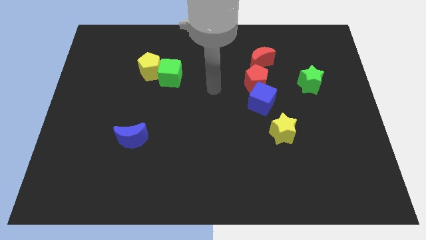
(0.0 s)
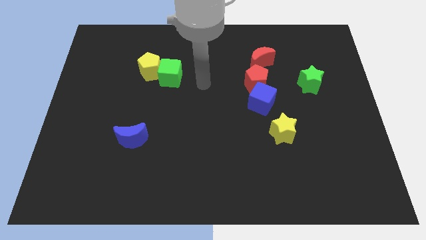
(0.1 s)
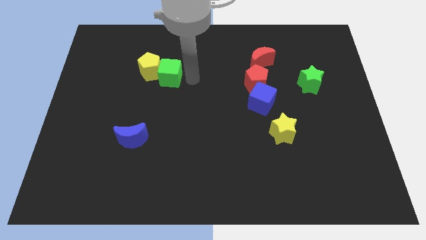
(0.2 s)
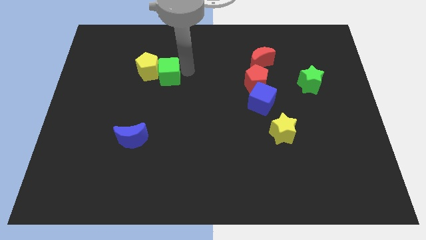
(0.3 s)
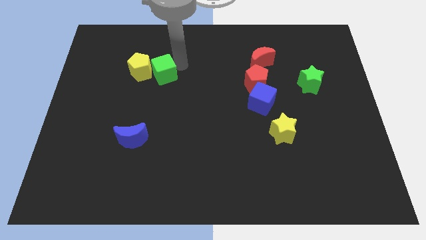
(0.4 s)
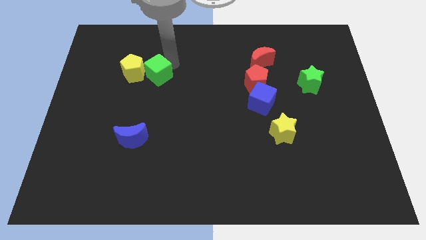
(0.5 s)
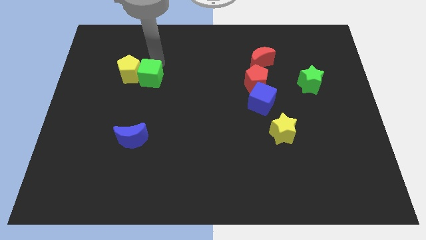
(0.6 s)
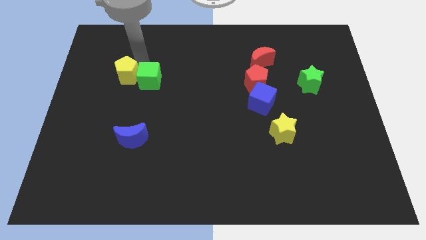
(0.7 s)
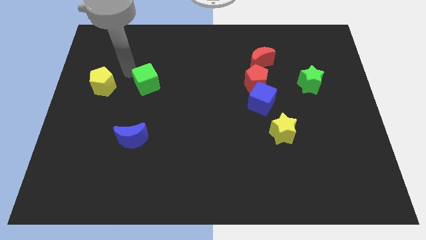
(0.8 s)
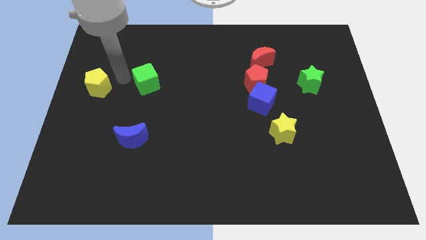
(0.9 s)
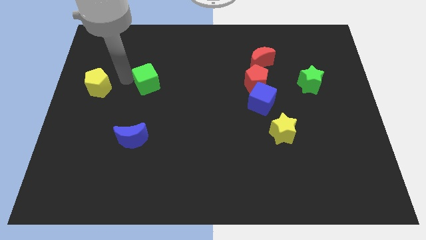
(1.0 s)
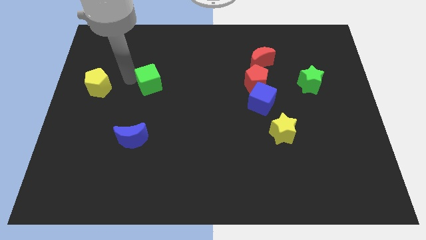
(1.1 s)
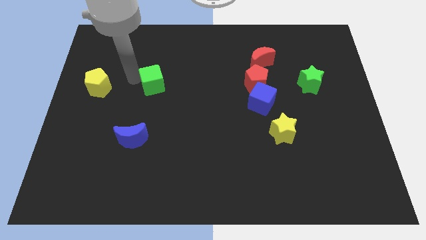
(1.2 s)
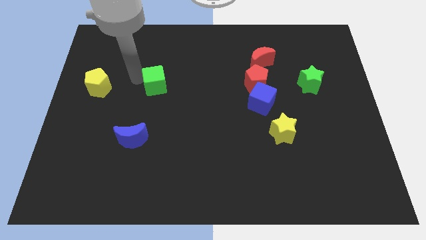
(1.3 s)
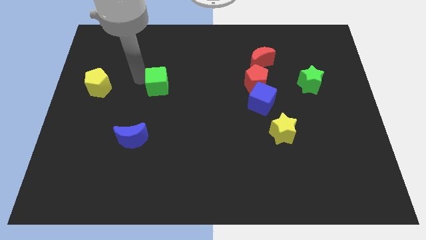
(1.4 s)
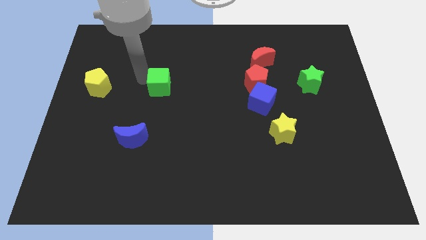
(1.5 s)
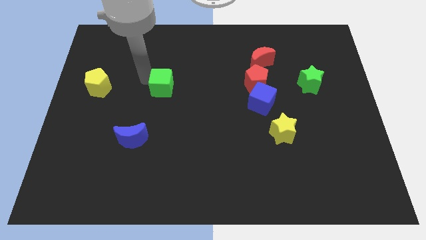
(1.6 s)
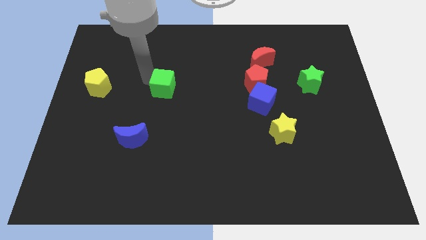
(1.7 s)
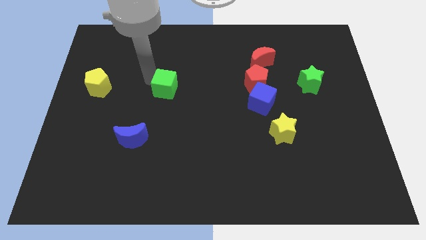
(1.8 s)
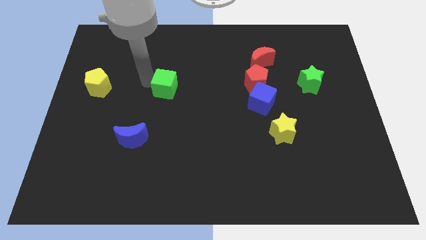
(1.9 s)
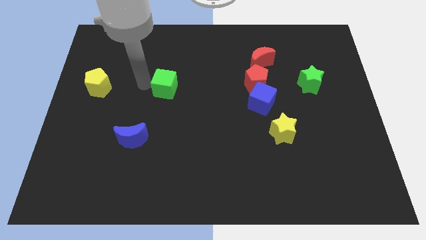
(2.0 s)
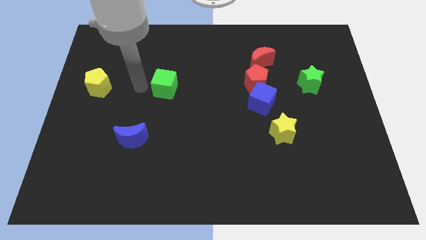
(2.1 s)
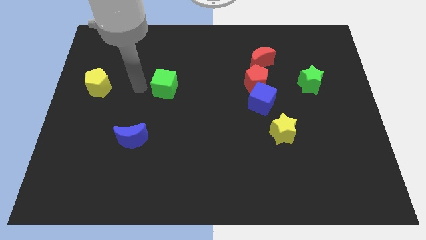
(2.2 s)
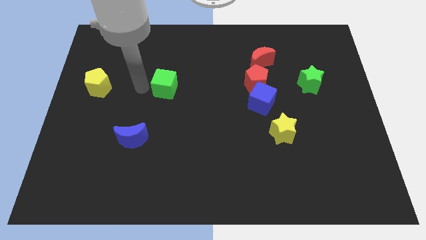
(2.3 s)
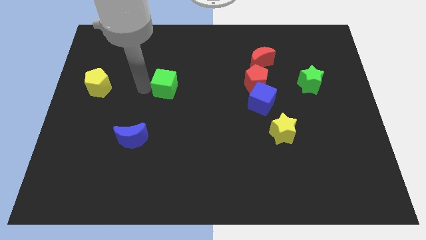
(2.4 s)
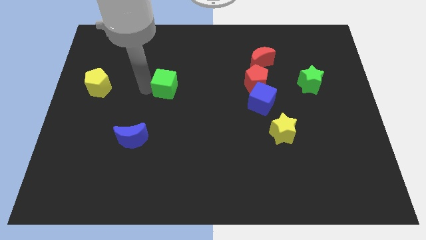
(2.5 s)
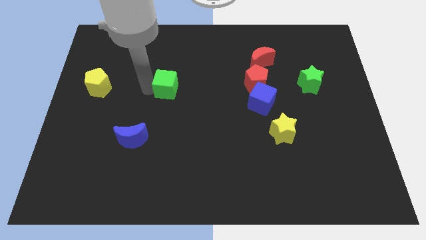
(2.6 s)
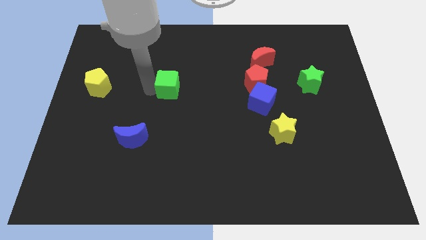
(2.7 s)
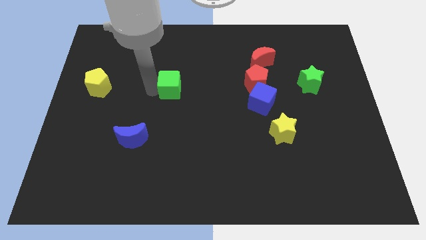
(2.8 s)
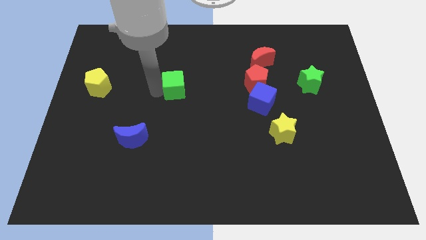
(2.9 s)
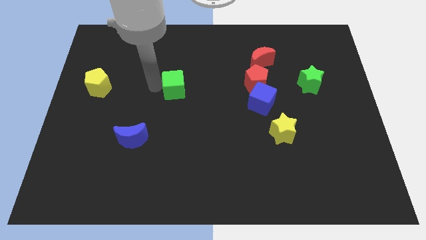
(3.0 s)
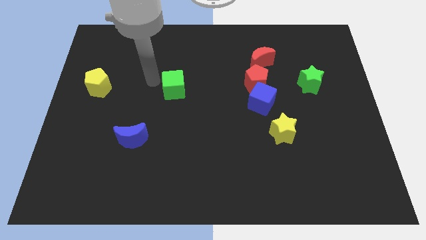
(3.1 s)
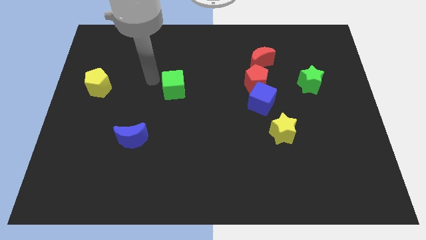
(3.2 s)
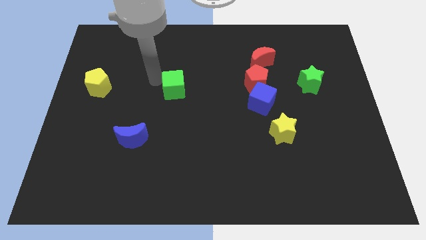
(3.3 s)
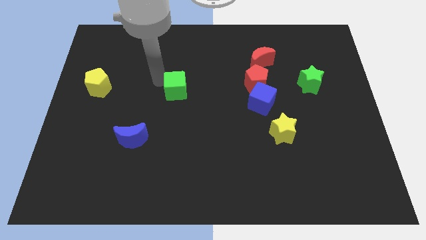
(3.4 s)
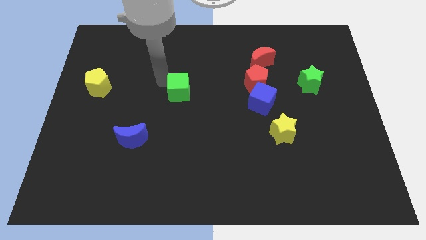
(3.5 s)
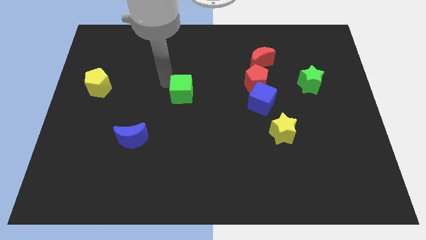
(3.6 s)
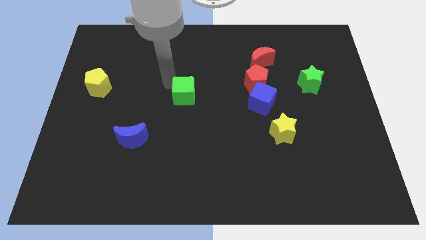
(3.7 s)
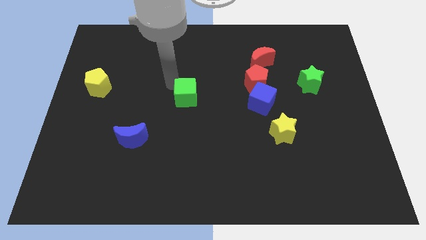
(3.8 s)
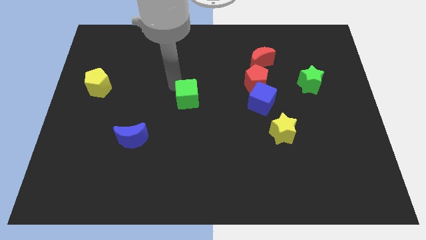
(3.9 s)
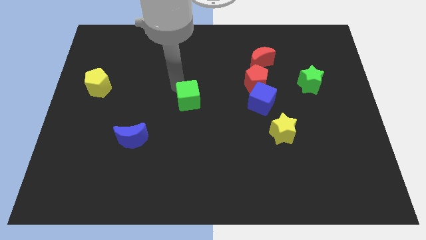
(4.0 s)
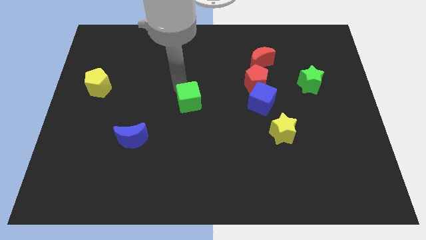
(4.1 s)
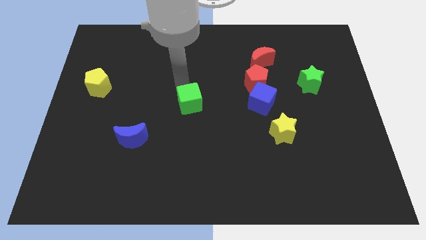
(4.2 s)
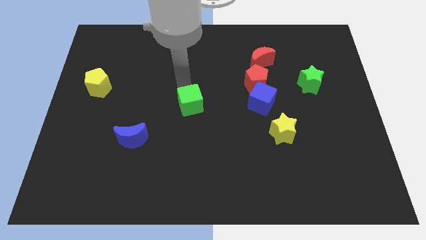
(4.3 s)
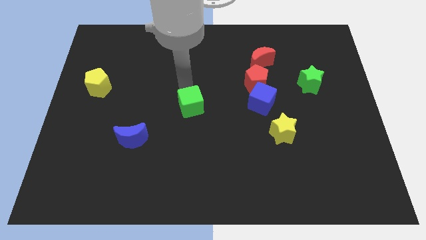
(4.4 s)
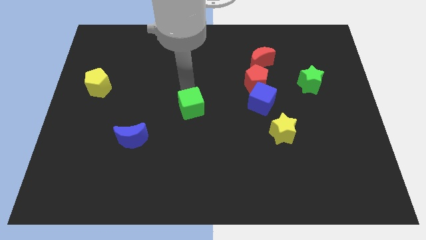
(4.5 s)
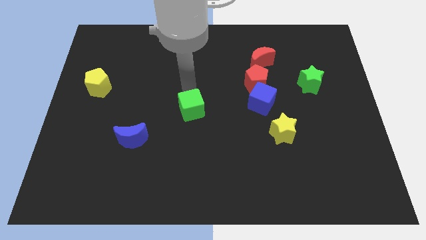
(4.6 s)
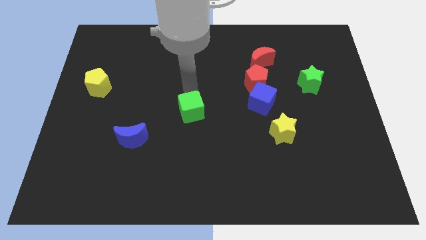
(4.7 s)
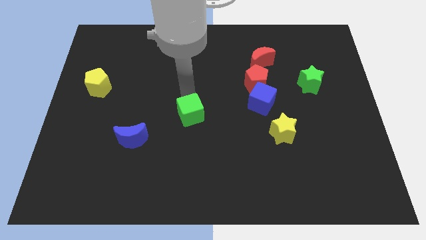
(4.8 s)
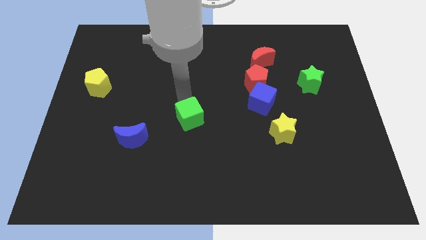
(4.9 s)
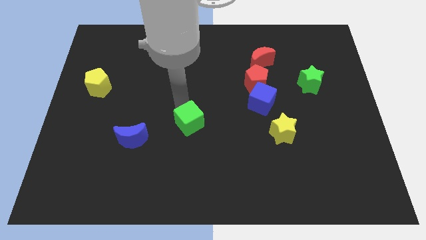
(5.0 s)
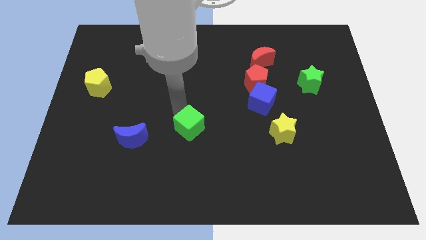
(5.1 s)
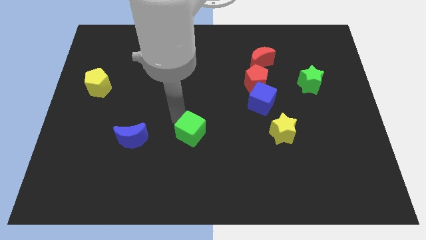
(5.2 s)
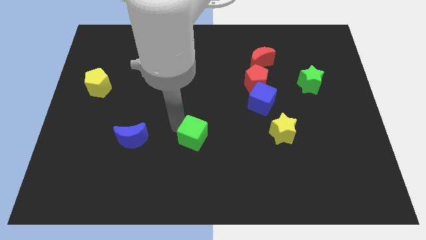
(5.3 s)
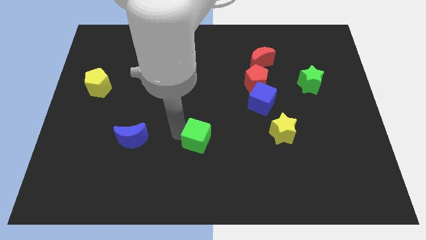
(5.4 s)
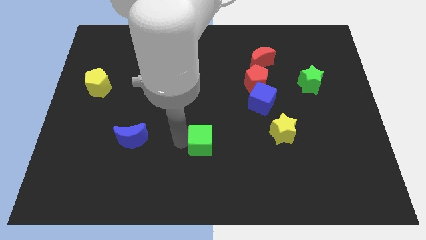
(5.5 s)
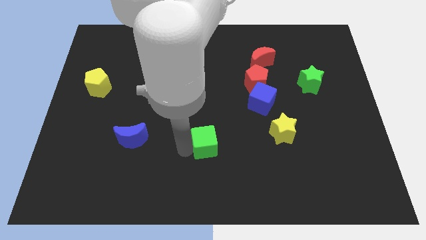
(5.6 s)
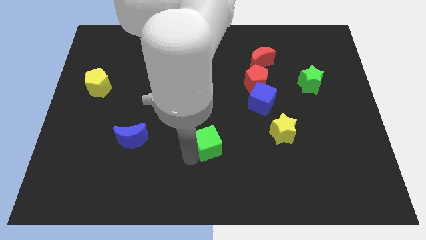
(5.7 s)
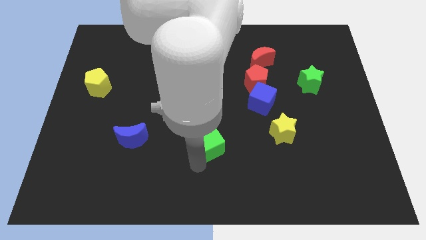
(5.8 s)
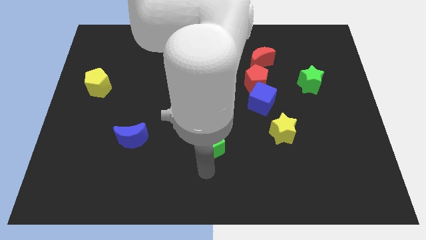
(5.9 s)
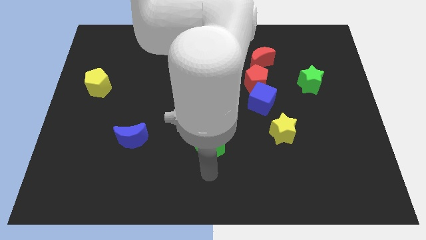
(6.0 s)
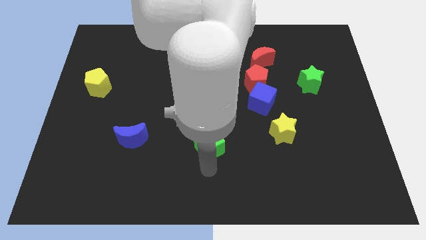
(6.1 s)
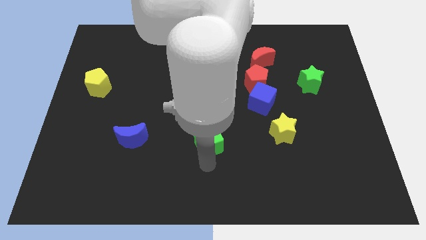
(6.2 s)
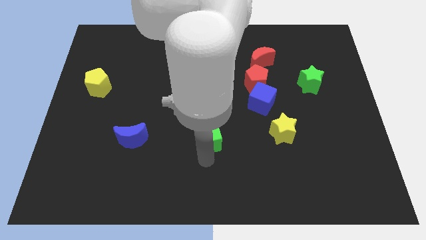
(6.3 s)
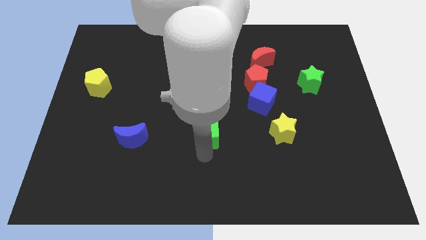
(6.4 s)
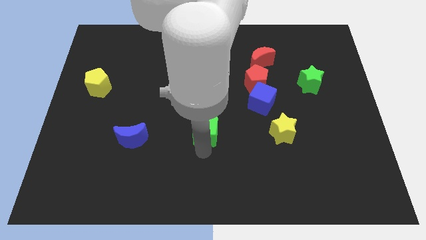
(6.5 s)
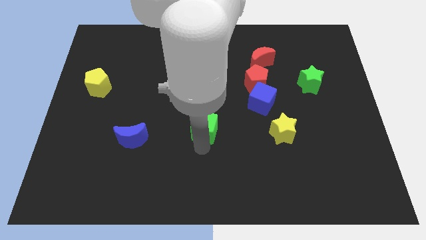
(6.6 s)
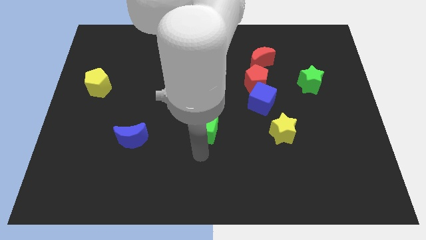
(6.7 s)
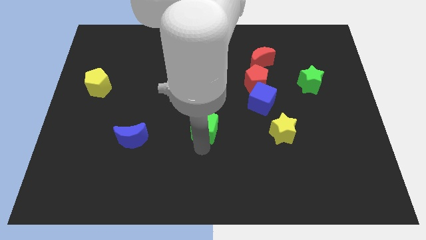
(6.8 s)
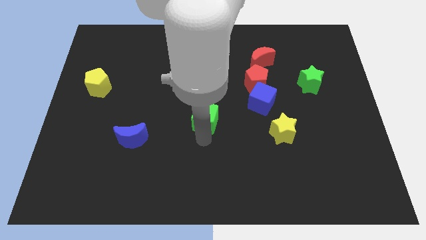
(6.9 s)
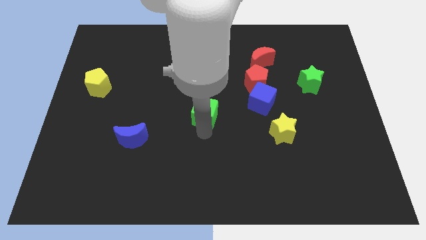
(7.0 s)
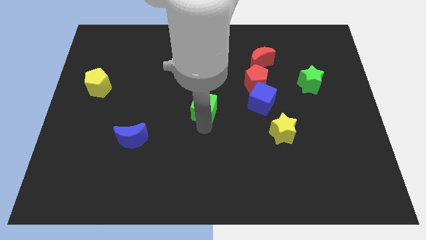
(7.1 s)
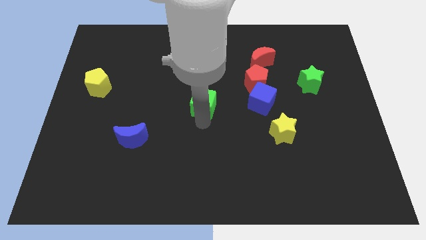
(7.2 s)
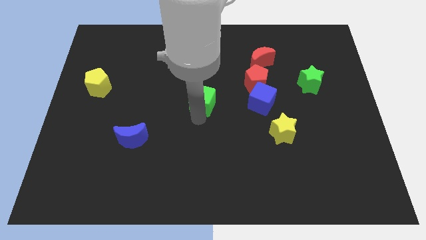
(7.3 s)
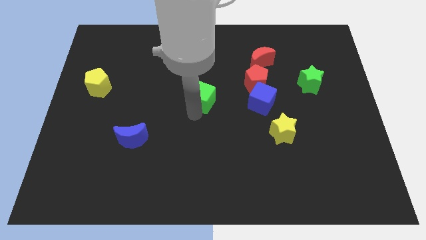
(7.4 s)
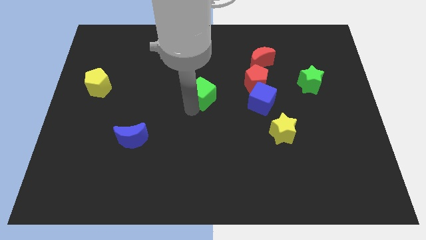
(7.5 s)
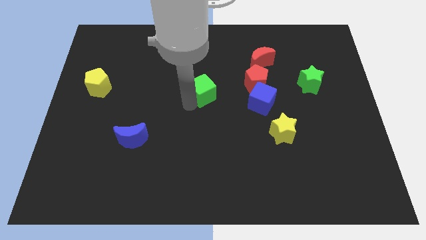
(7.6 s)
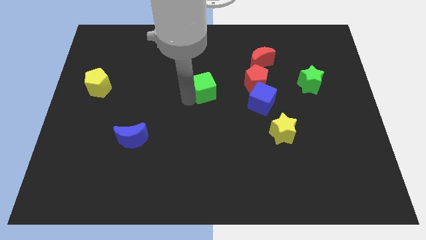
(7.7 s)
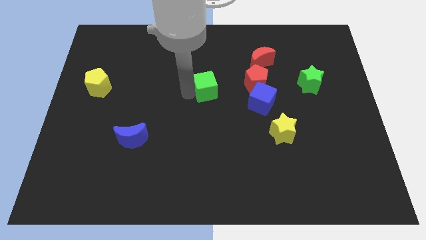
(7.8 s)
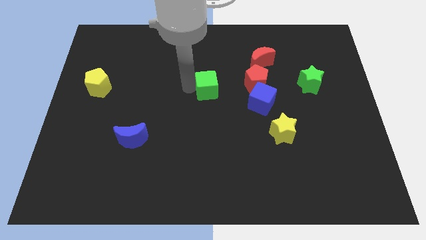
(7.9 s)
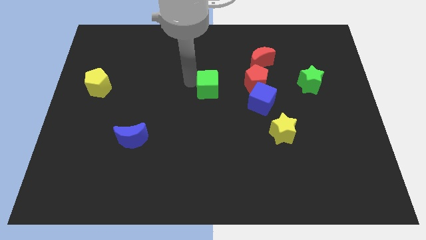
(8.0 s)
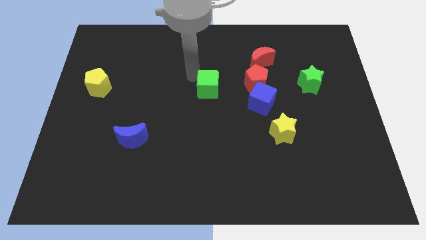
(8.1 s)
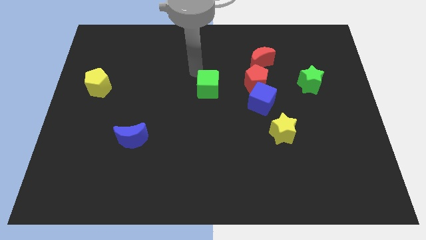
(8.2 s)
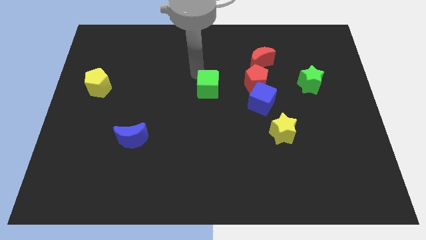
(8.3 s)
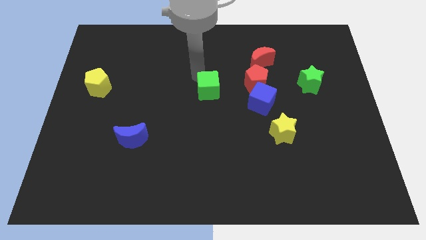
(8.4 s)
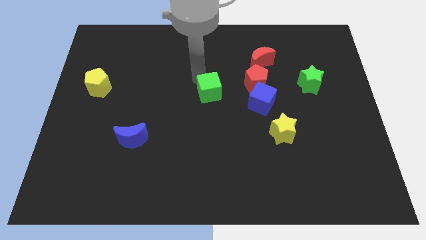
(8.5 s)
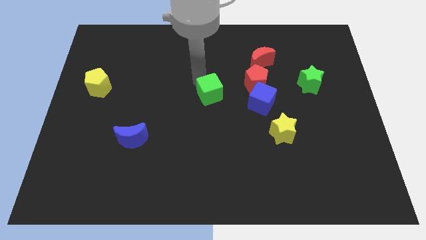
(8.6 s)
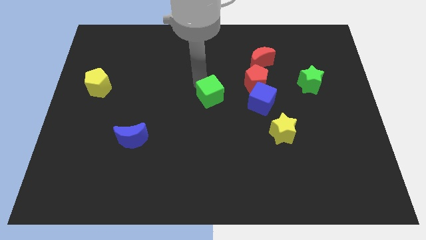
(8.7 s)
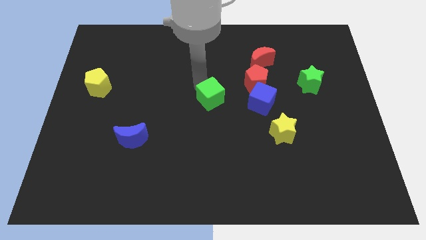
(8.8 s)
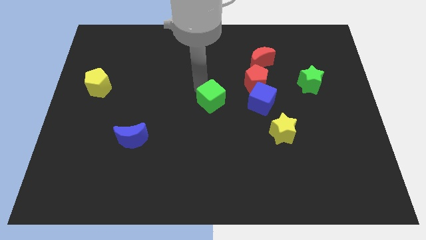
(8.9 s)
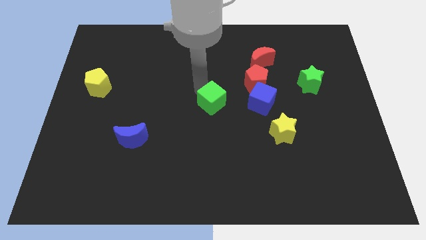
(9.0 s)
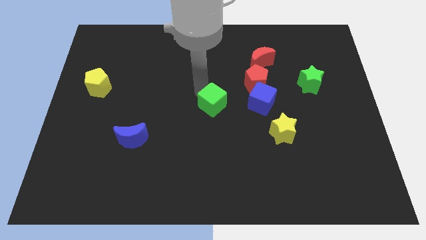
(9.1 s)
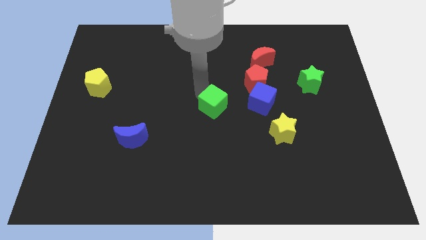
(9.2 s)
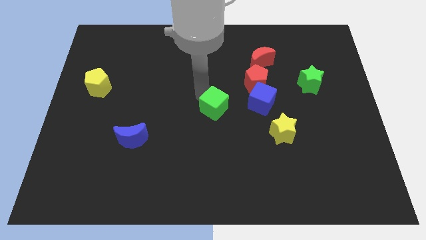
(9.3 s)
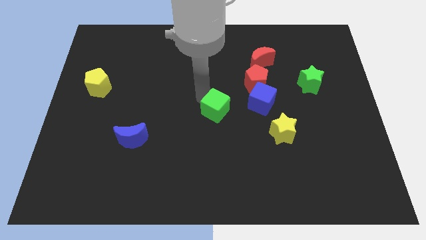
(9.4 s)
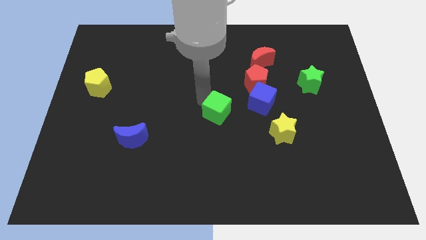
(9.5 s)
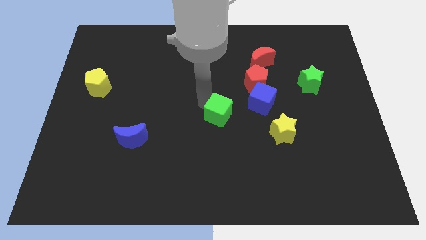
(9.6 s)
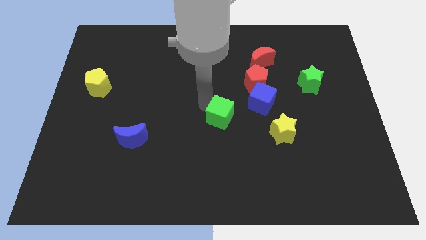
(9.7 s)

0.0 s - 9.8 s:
move the green cube diagonally down and to the left of the blue cube
